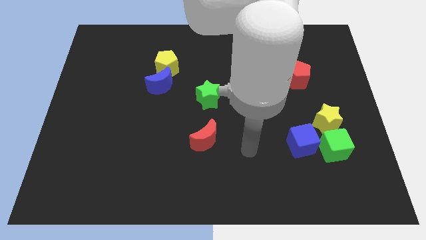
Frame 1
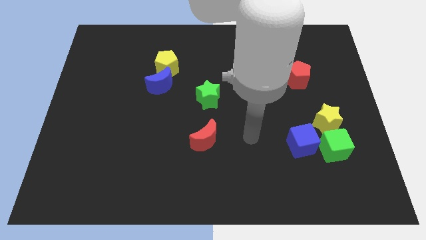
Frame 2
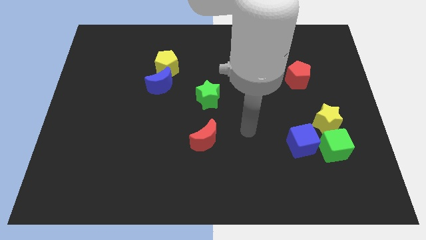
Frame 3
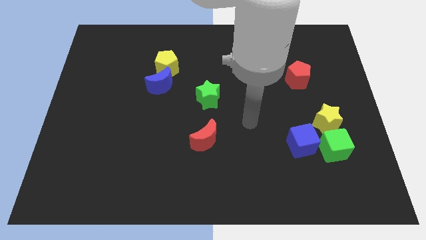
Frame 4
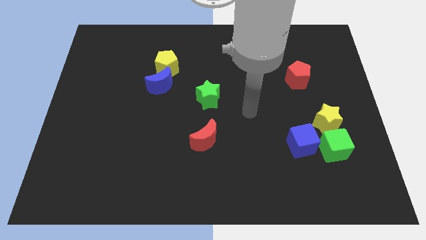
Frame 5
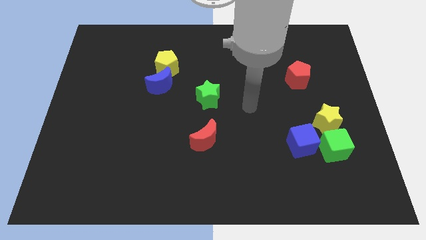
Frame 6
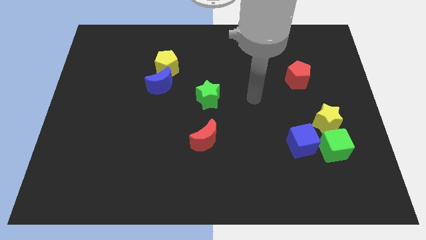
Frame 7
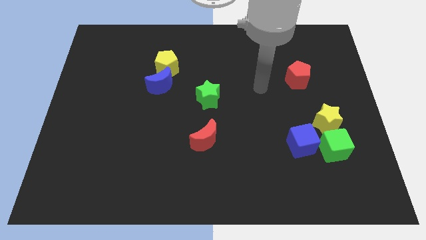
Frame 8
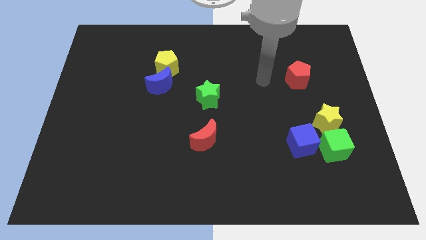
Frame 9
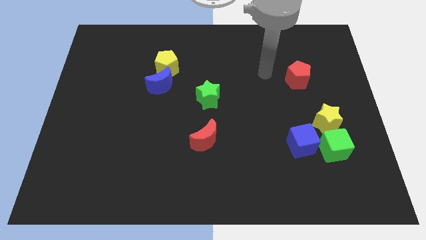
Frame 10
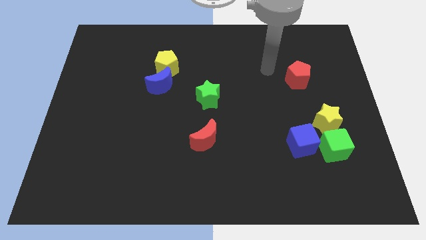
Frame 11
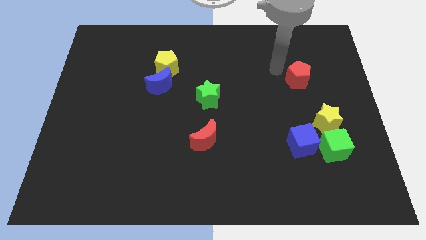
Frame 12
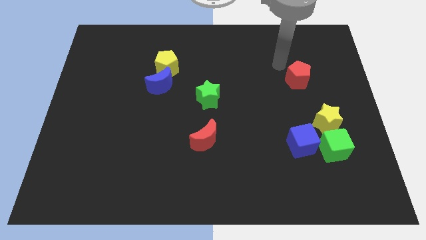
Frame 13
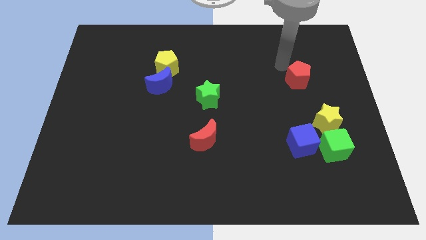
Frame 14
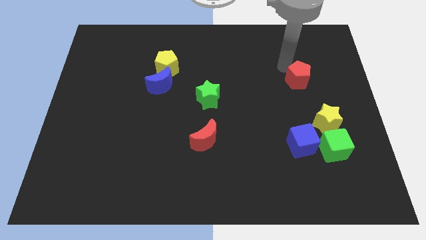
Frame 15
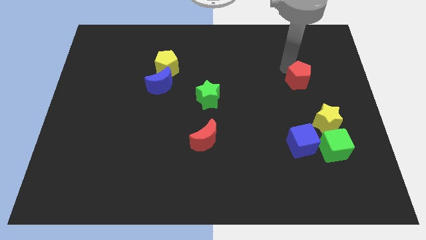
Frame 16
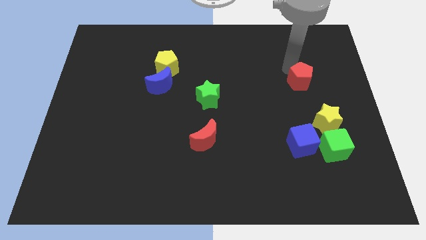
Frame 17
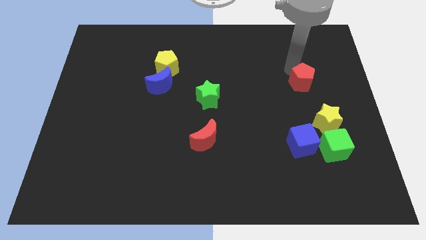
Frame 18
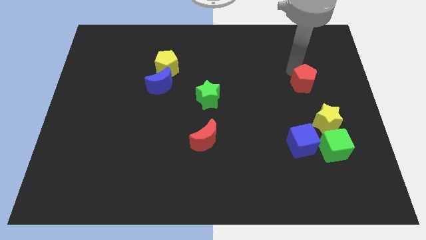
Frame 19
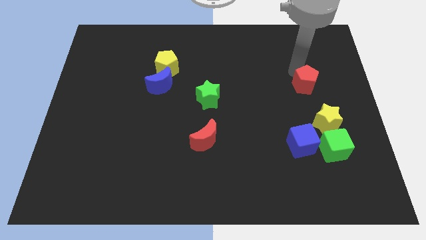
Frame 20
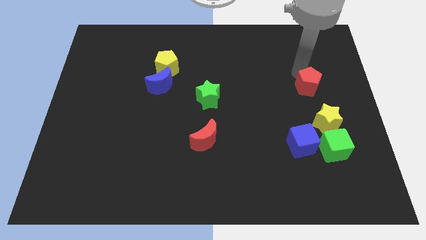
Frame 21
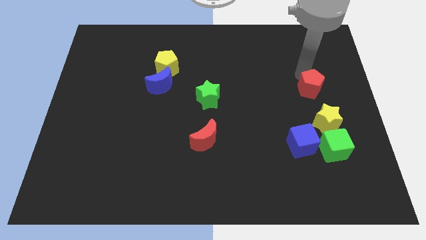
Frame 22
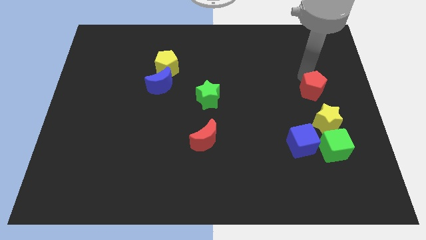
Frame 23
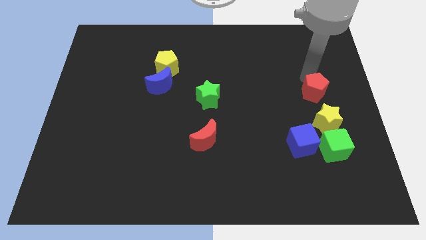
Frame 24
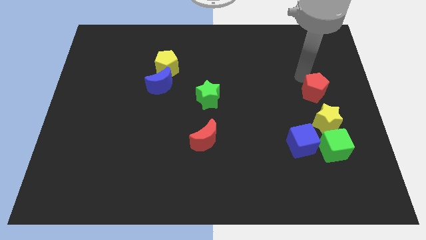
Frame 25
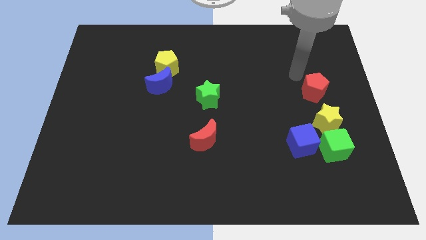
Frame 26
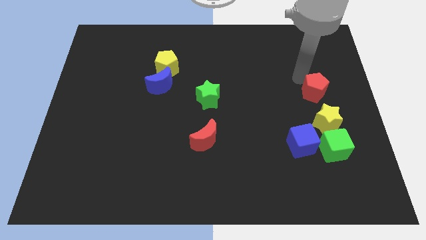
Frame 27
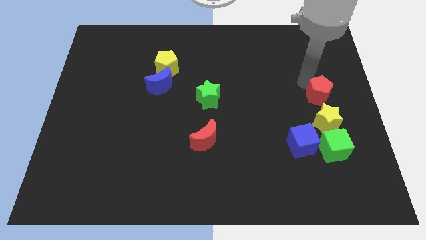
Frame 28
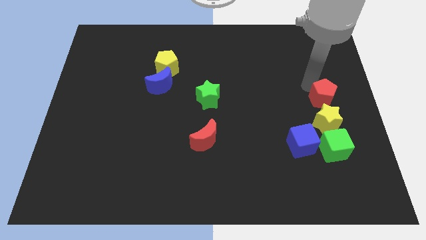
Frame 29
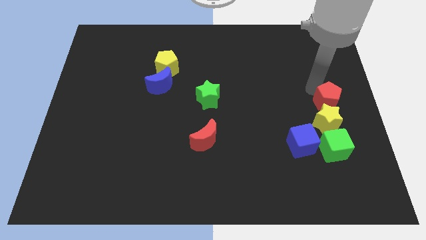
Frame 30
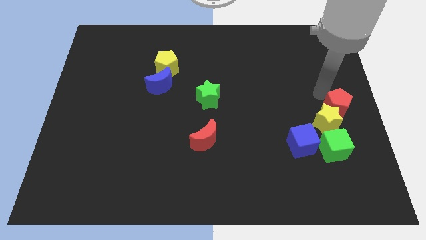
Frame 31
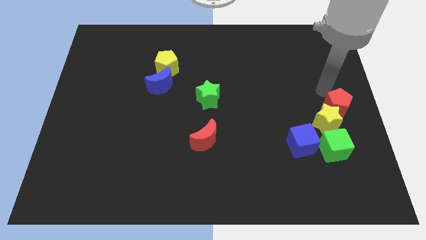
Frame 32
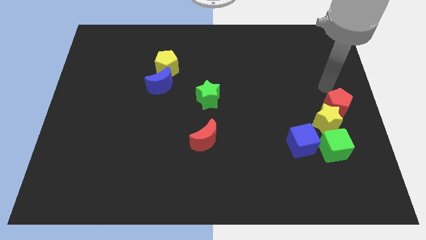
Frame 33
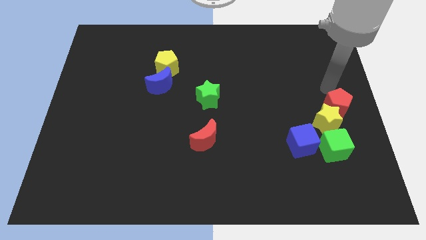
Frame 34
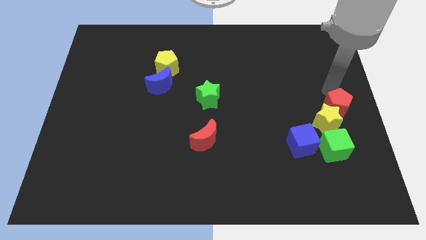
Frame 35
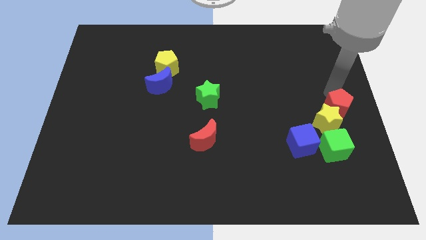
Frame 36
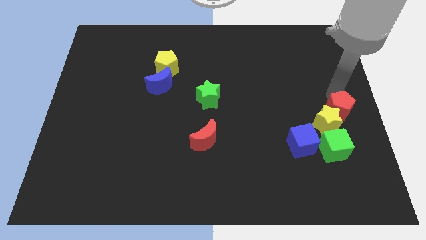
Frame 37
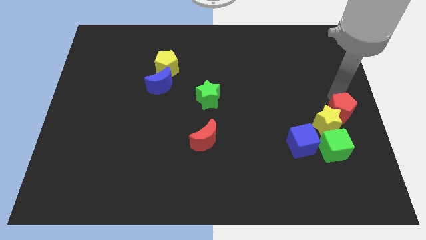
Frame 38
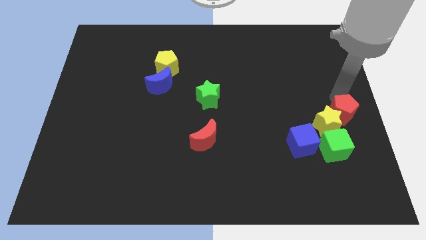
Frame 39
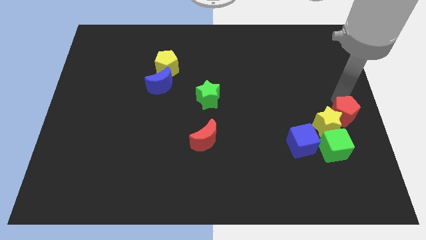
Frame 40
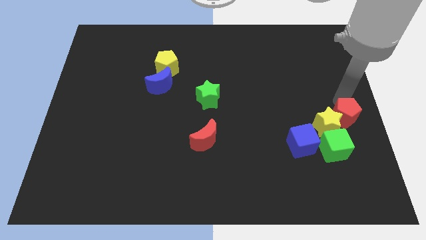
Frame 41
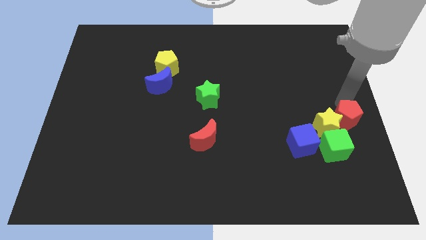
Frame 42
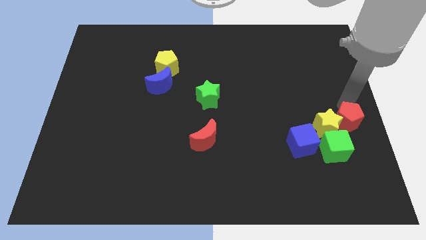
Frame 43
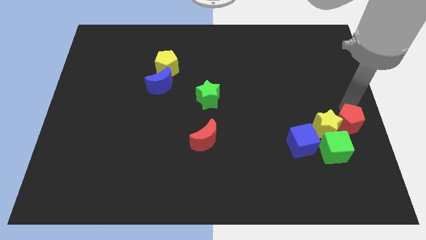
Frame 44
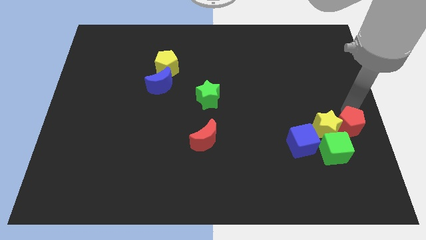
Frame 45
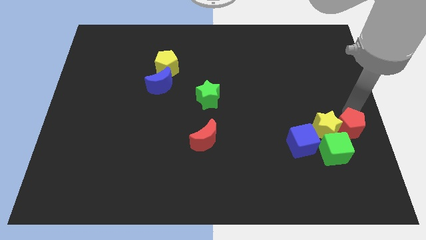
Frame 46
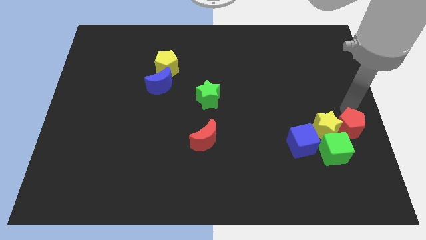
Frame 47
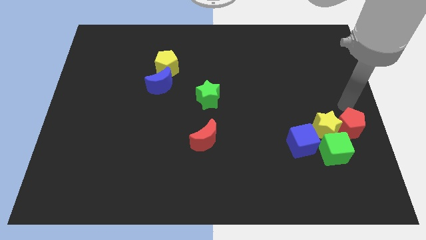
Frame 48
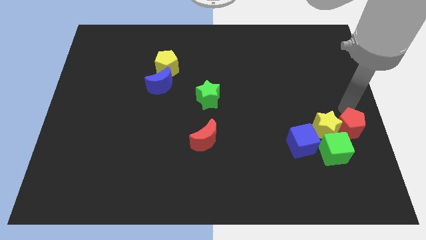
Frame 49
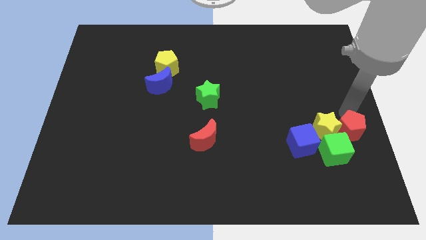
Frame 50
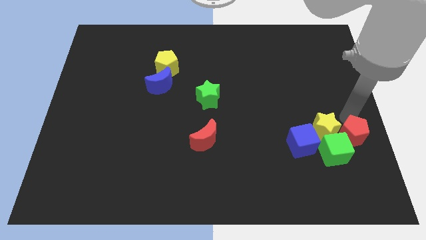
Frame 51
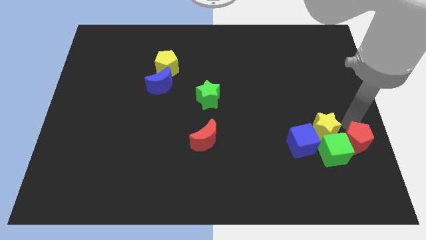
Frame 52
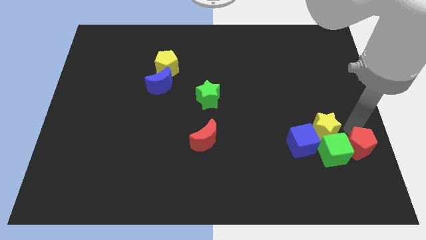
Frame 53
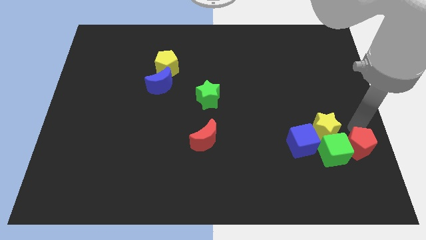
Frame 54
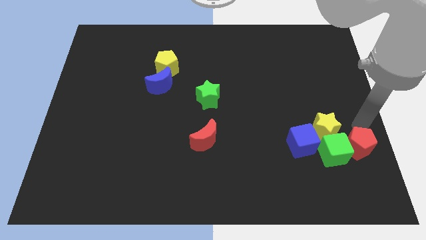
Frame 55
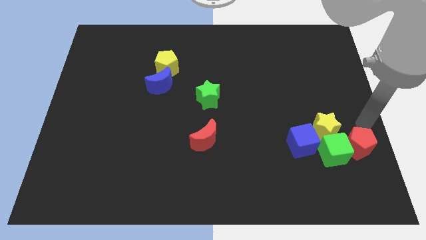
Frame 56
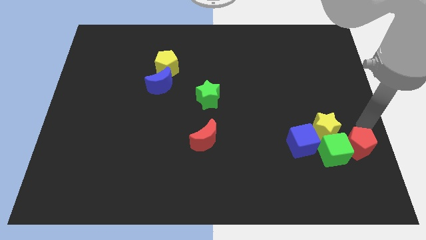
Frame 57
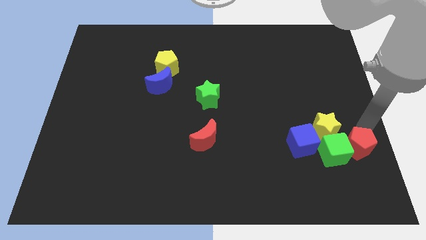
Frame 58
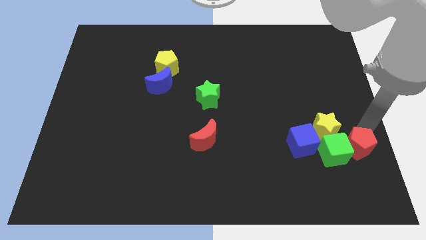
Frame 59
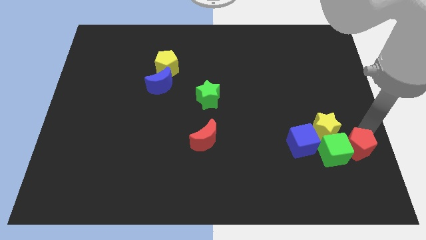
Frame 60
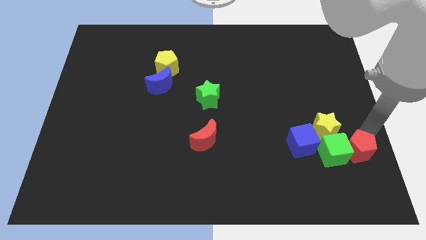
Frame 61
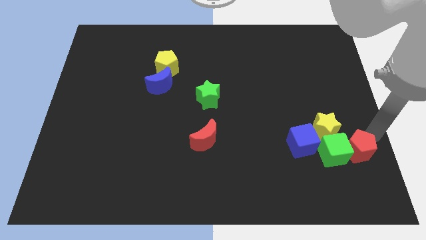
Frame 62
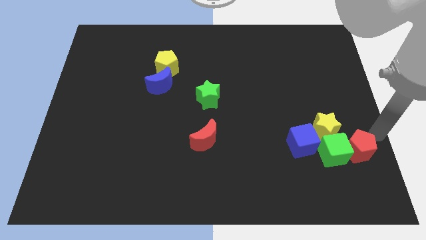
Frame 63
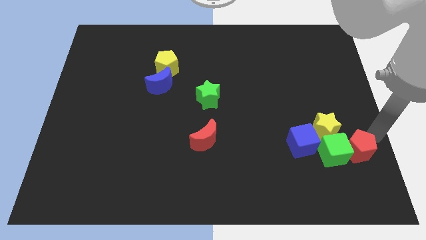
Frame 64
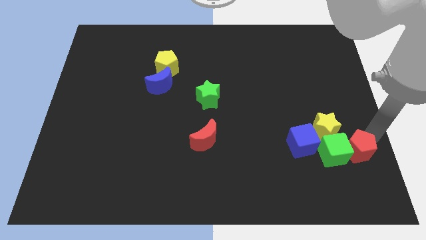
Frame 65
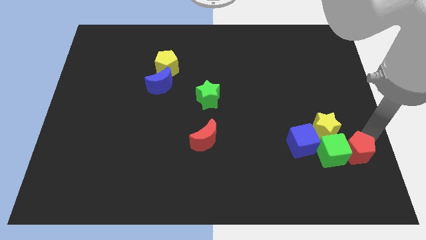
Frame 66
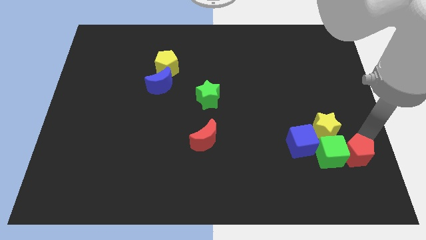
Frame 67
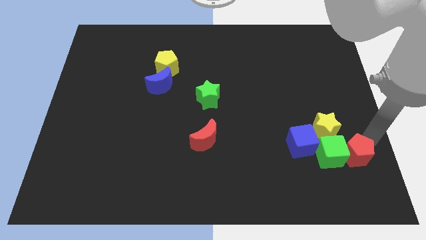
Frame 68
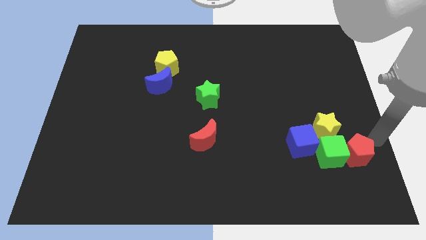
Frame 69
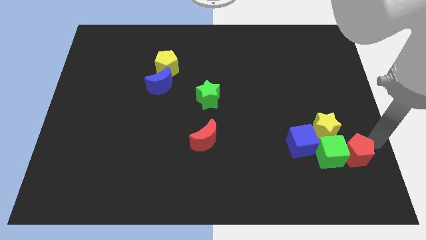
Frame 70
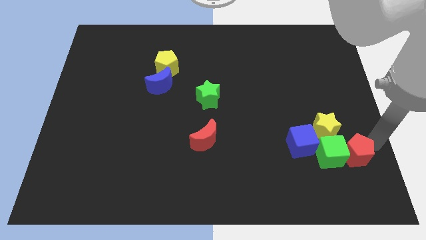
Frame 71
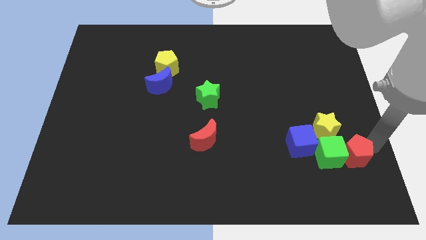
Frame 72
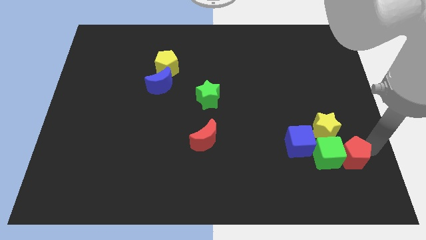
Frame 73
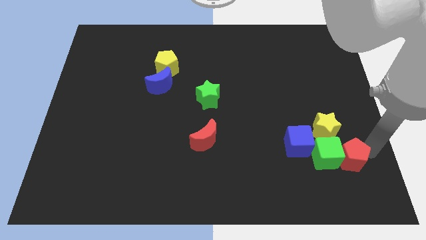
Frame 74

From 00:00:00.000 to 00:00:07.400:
put the red pentagon below the yellow star
